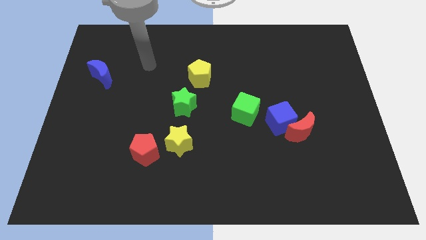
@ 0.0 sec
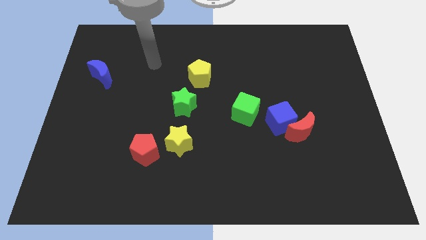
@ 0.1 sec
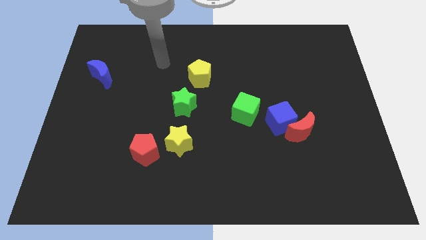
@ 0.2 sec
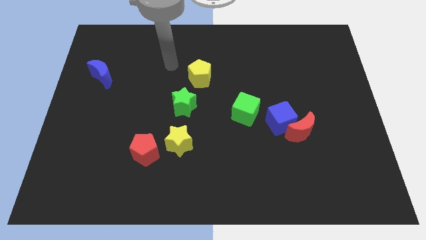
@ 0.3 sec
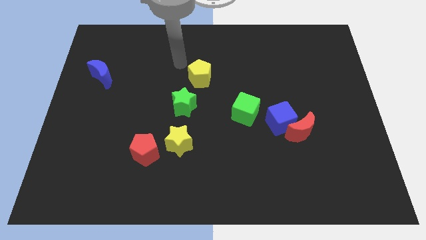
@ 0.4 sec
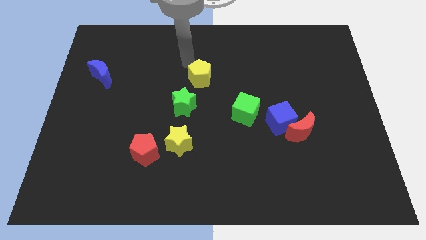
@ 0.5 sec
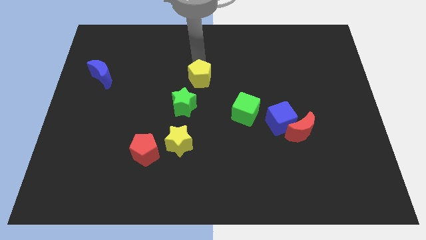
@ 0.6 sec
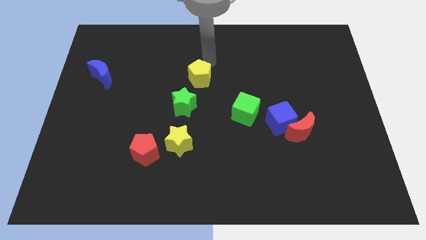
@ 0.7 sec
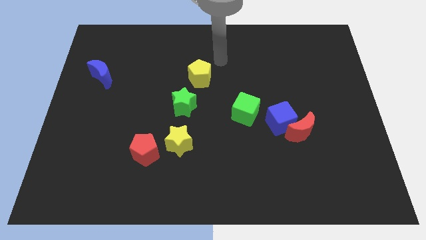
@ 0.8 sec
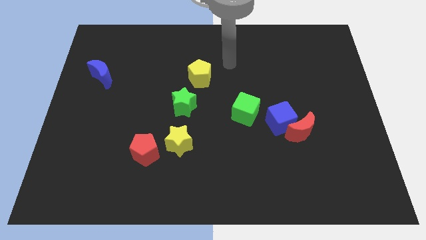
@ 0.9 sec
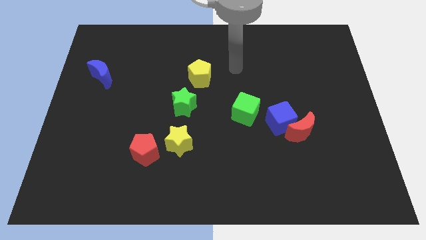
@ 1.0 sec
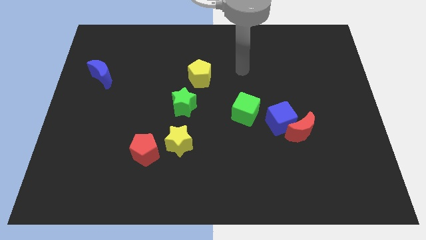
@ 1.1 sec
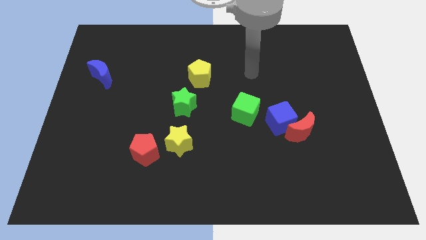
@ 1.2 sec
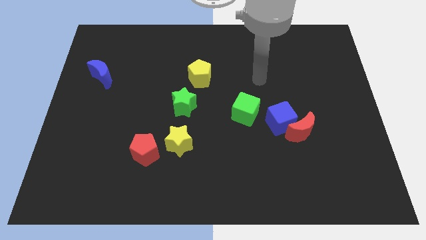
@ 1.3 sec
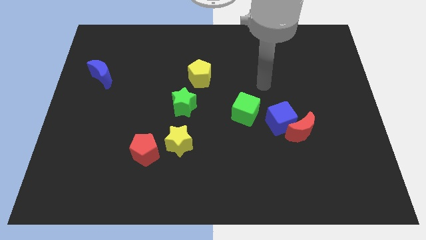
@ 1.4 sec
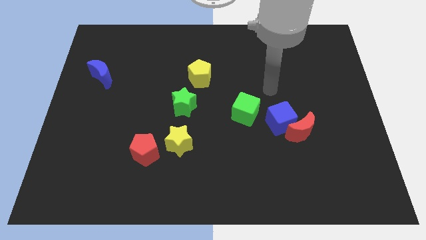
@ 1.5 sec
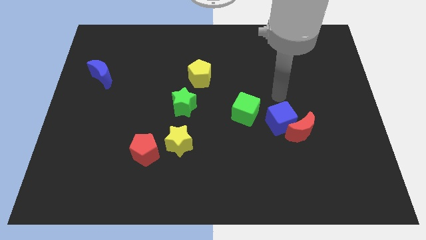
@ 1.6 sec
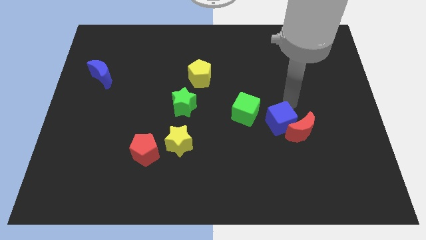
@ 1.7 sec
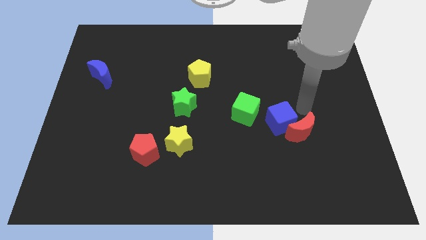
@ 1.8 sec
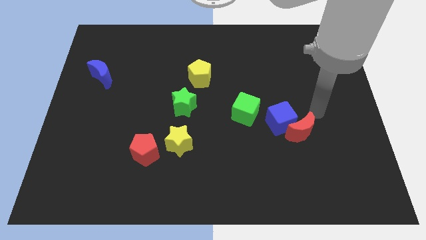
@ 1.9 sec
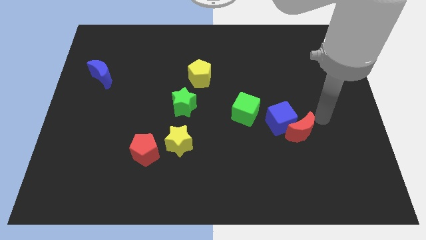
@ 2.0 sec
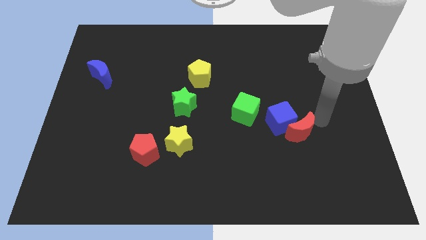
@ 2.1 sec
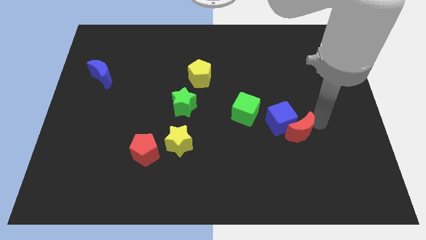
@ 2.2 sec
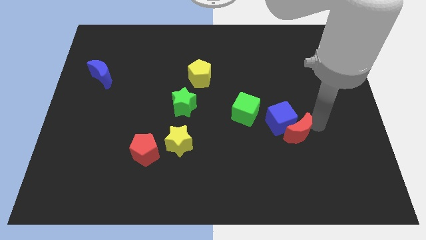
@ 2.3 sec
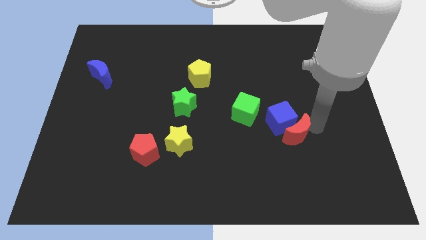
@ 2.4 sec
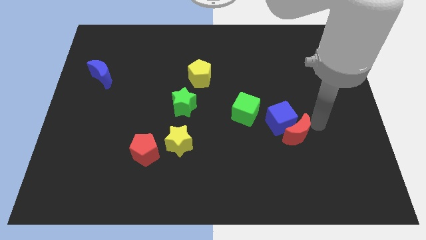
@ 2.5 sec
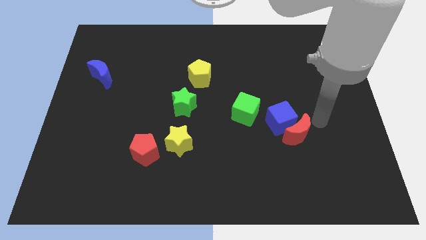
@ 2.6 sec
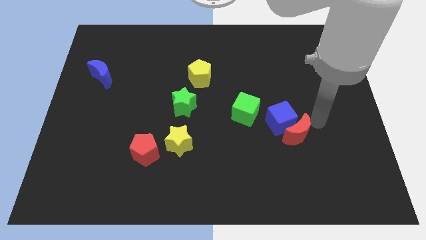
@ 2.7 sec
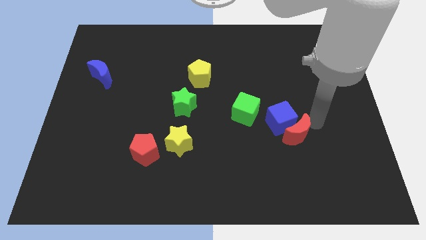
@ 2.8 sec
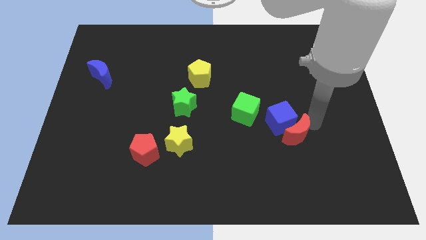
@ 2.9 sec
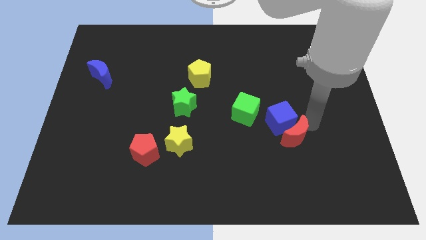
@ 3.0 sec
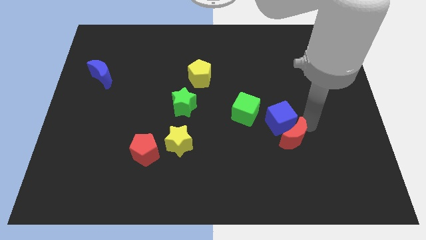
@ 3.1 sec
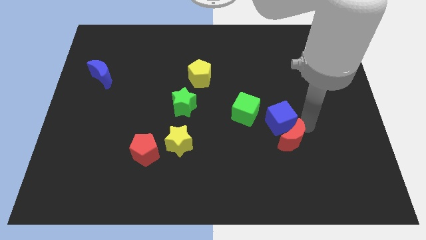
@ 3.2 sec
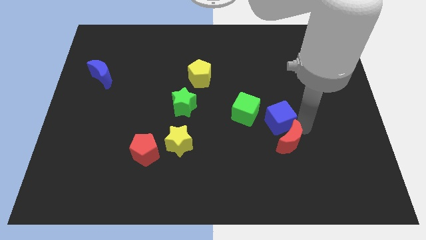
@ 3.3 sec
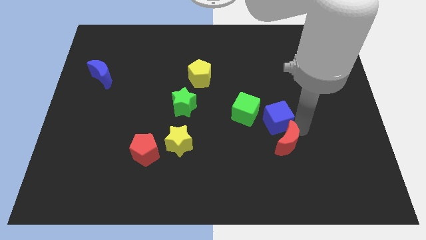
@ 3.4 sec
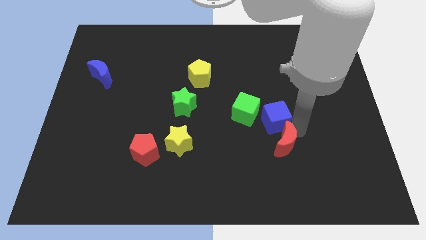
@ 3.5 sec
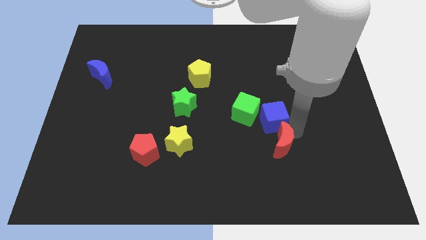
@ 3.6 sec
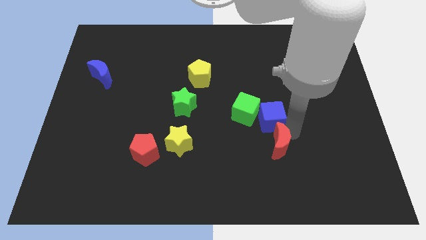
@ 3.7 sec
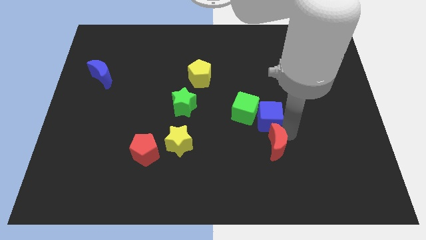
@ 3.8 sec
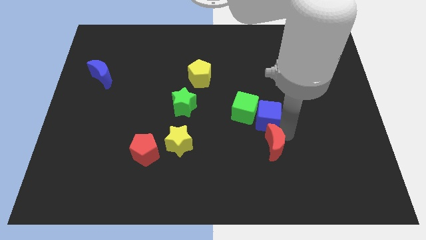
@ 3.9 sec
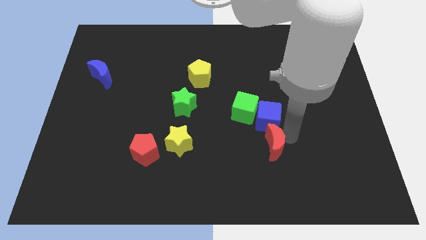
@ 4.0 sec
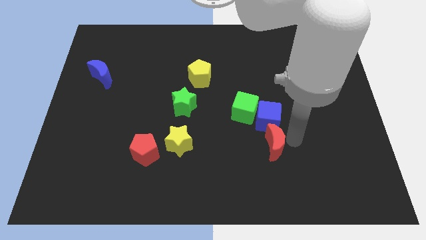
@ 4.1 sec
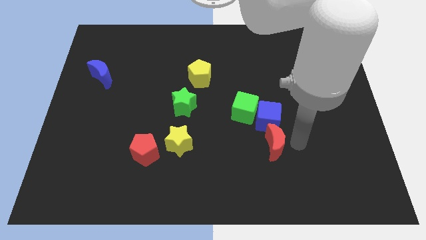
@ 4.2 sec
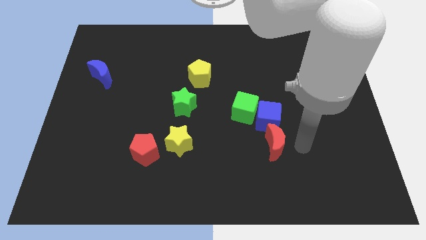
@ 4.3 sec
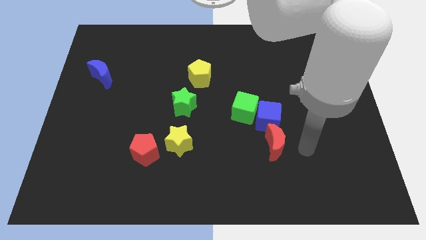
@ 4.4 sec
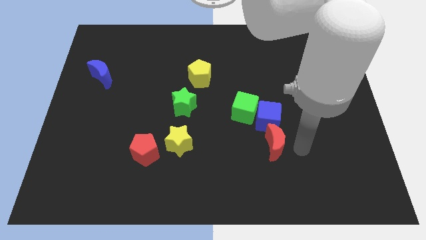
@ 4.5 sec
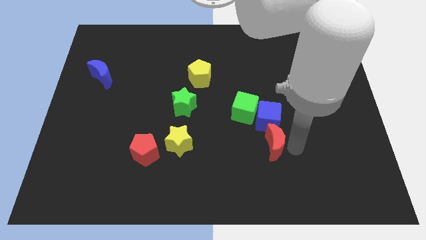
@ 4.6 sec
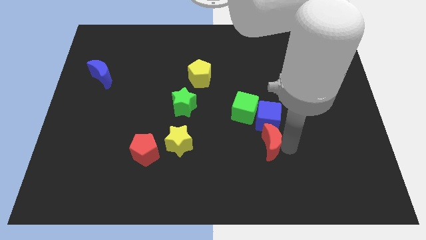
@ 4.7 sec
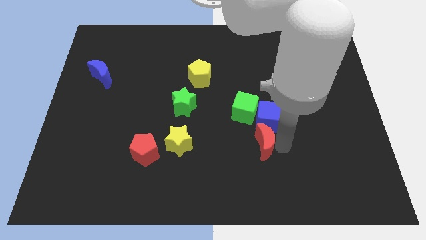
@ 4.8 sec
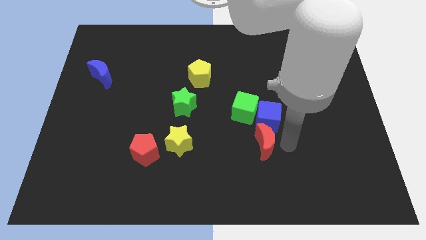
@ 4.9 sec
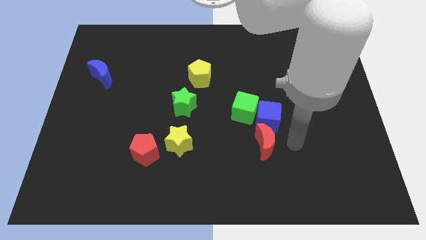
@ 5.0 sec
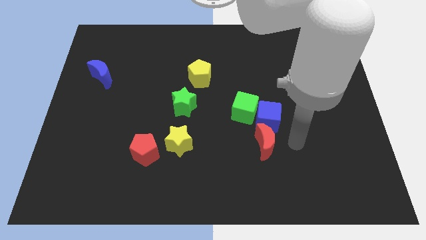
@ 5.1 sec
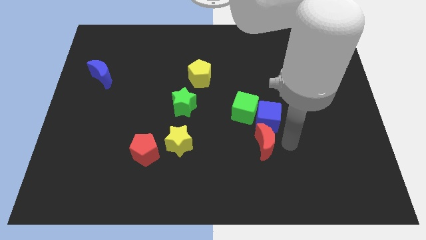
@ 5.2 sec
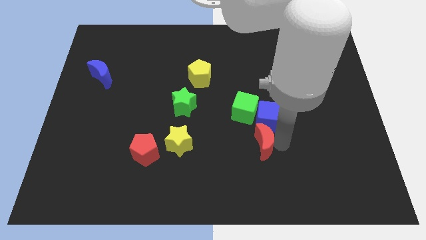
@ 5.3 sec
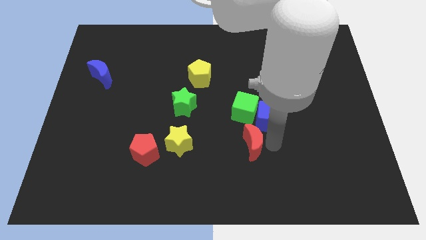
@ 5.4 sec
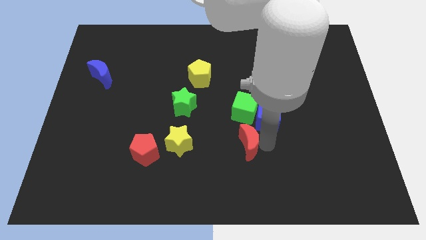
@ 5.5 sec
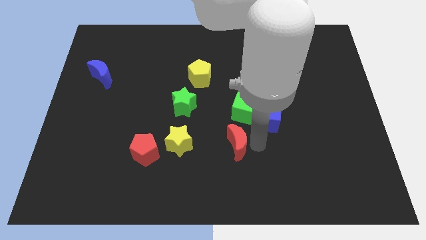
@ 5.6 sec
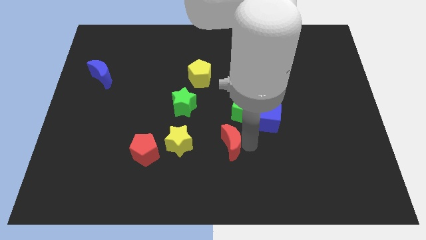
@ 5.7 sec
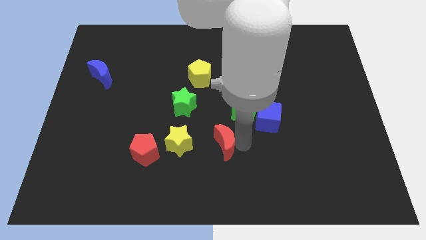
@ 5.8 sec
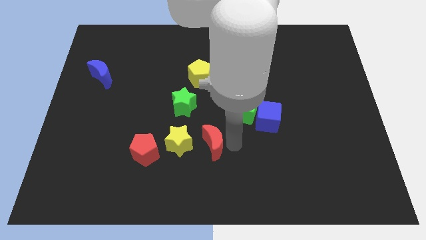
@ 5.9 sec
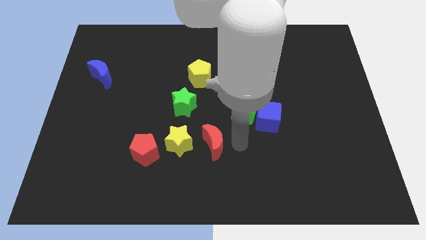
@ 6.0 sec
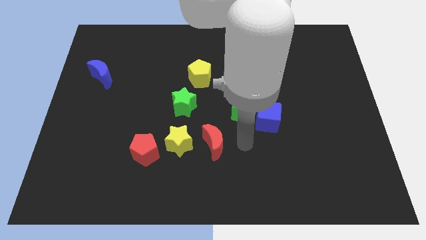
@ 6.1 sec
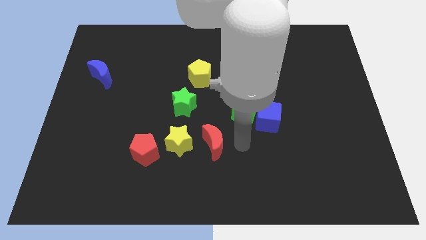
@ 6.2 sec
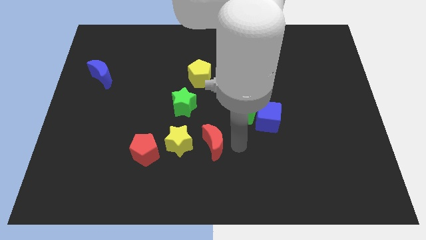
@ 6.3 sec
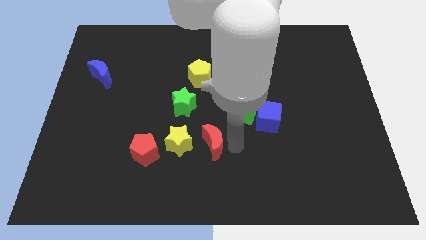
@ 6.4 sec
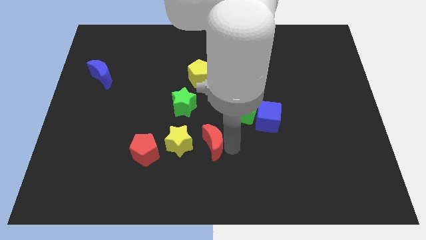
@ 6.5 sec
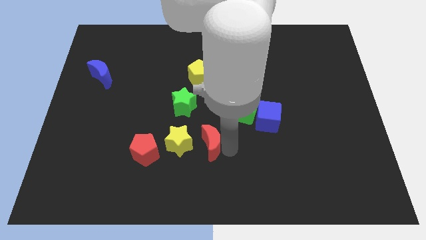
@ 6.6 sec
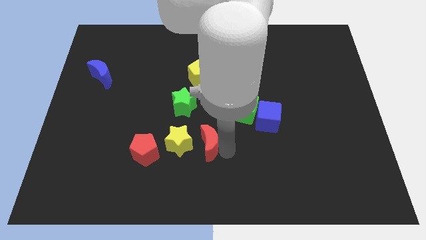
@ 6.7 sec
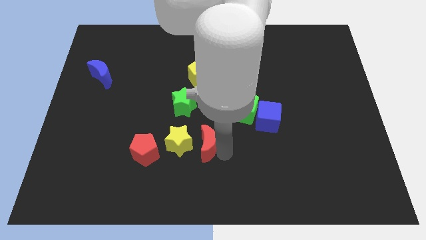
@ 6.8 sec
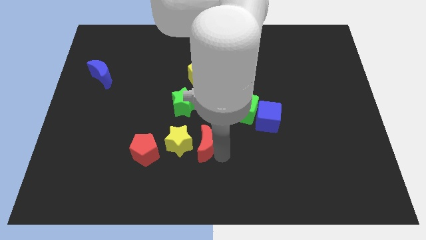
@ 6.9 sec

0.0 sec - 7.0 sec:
push the red moon next to the yellow star
